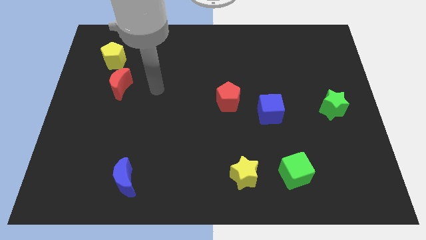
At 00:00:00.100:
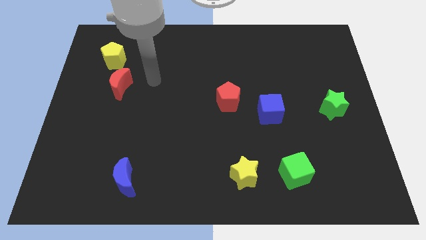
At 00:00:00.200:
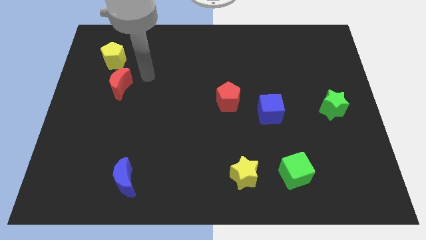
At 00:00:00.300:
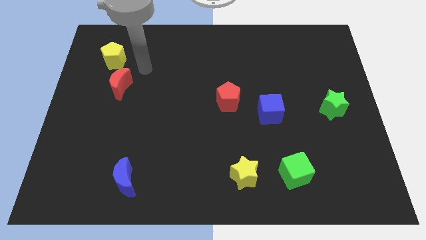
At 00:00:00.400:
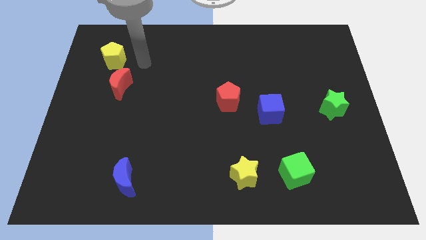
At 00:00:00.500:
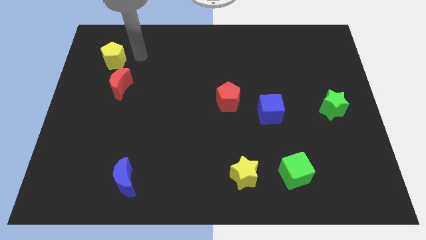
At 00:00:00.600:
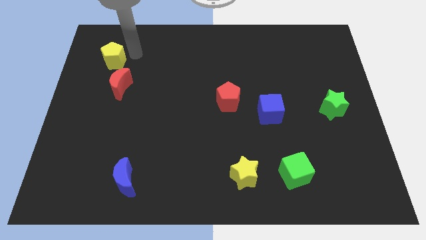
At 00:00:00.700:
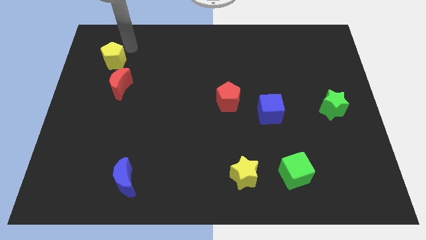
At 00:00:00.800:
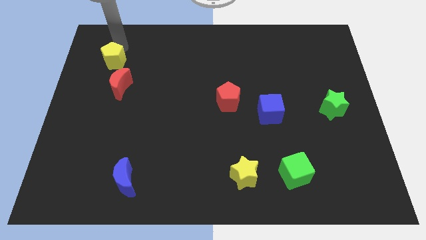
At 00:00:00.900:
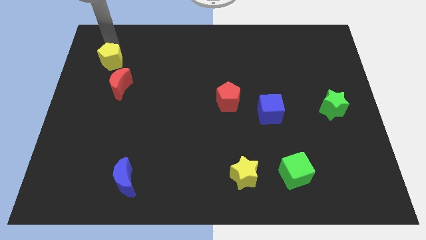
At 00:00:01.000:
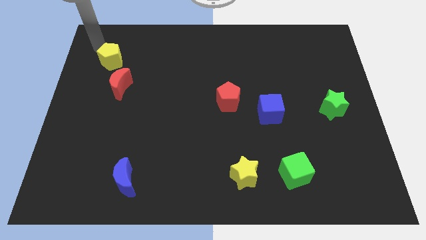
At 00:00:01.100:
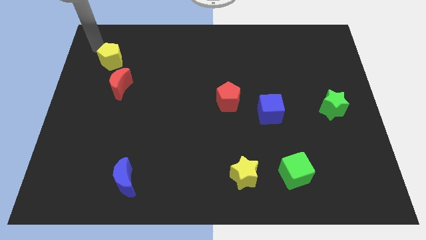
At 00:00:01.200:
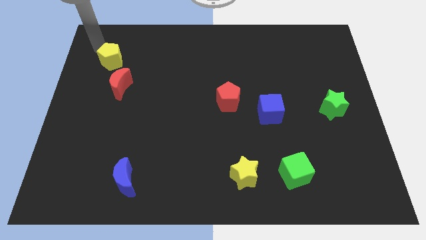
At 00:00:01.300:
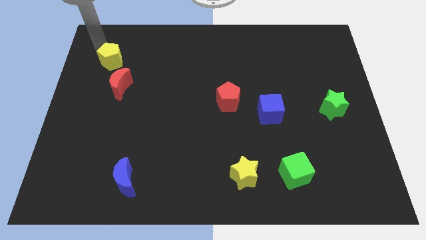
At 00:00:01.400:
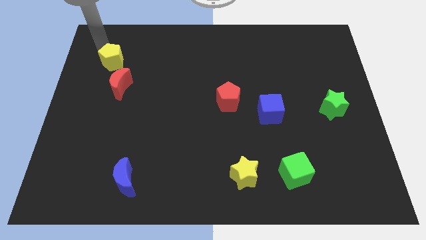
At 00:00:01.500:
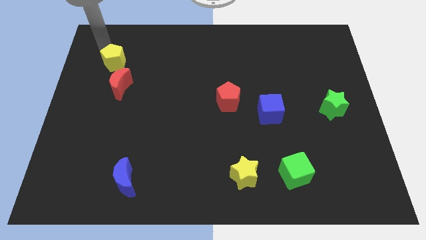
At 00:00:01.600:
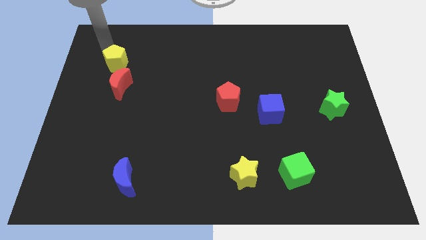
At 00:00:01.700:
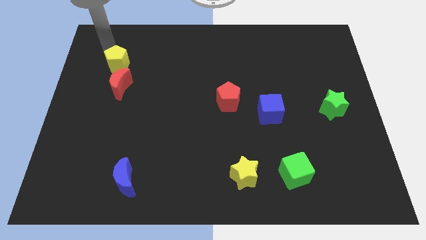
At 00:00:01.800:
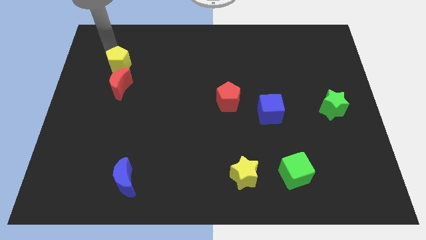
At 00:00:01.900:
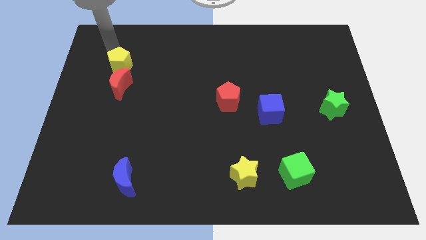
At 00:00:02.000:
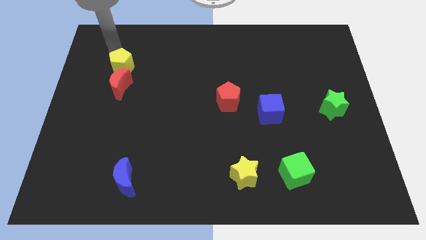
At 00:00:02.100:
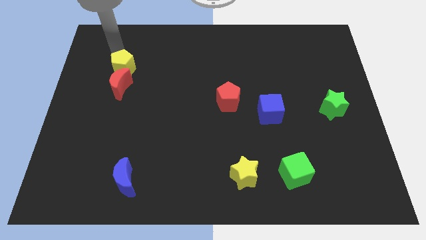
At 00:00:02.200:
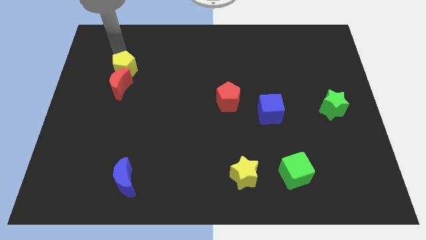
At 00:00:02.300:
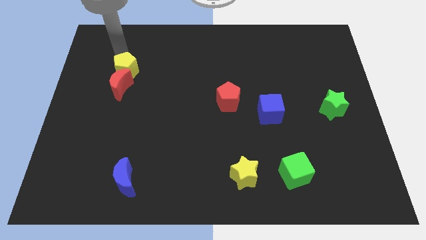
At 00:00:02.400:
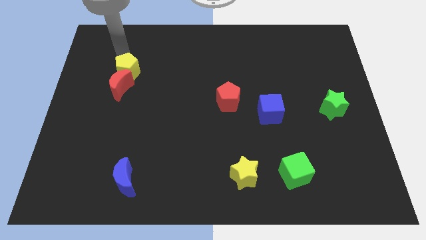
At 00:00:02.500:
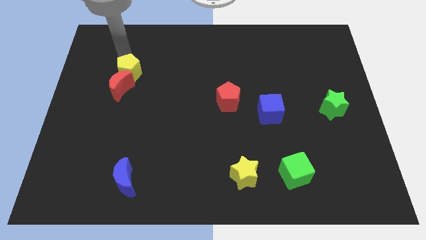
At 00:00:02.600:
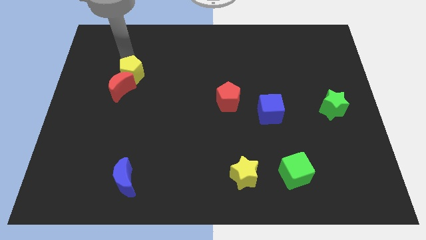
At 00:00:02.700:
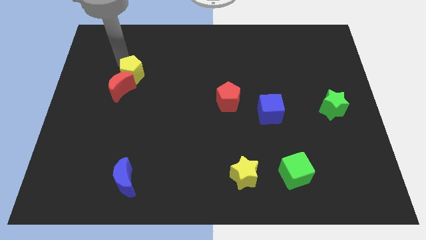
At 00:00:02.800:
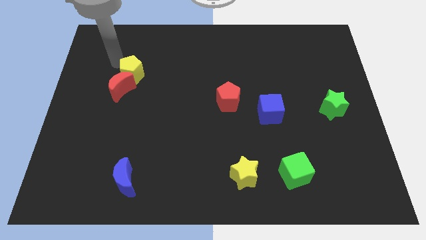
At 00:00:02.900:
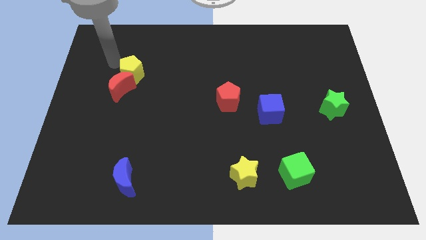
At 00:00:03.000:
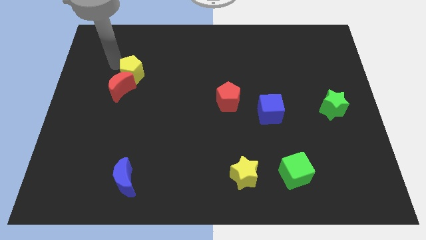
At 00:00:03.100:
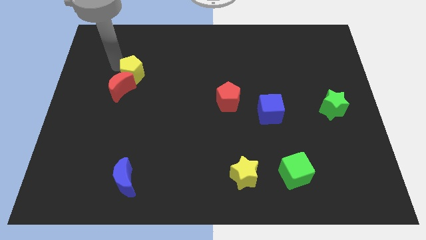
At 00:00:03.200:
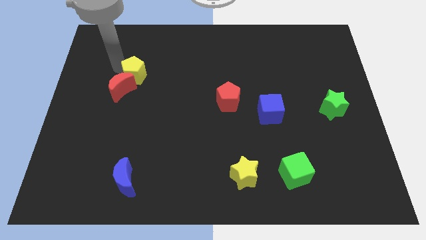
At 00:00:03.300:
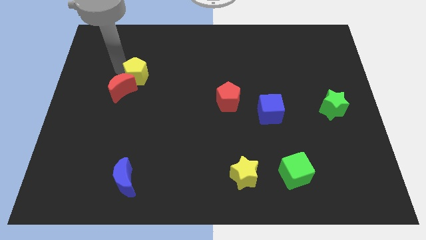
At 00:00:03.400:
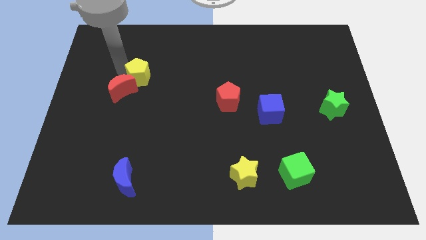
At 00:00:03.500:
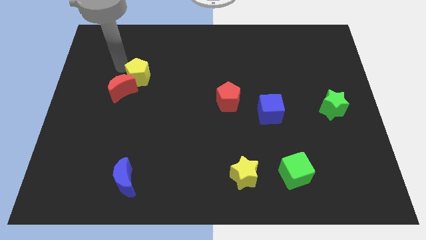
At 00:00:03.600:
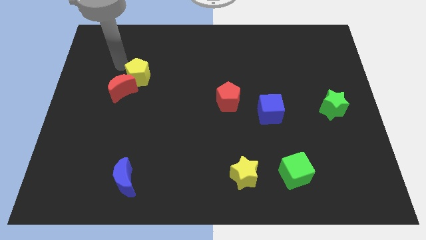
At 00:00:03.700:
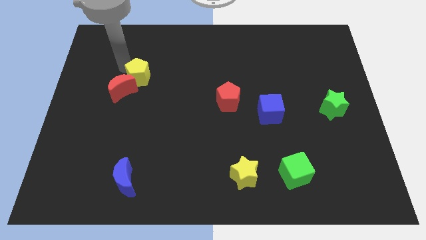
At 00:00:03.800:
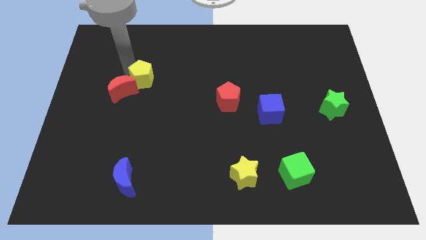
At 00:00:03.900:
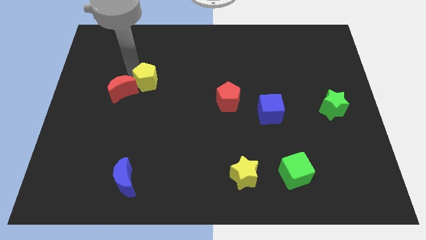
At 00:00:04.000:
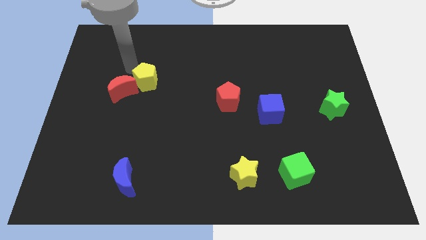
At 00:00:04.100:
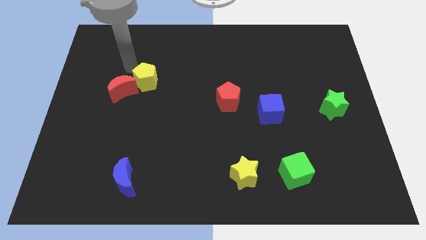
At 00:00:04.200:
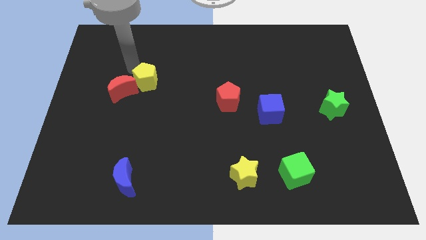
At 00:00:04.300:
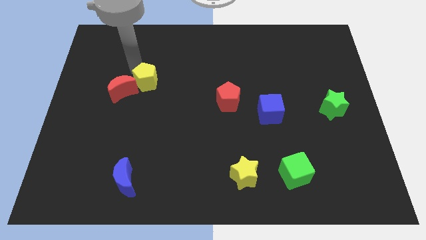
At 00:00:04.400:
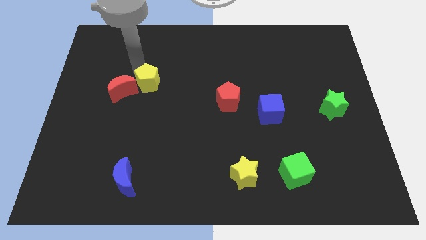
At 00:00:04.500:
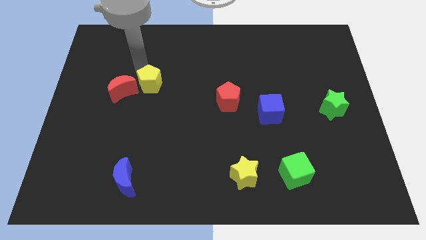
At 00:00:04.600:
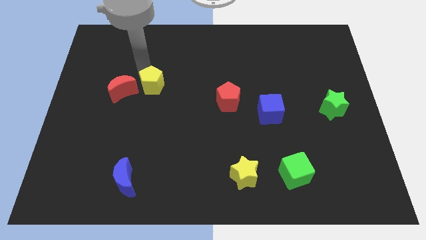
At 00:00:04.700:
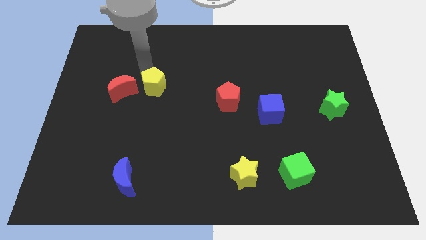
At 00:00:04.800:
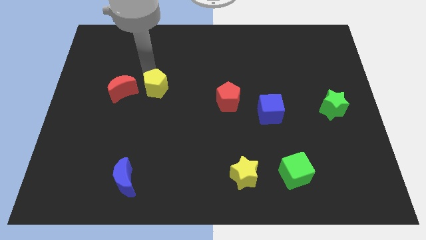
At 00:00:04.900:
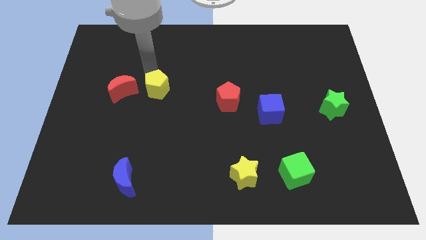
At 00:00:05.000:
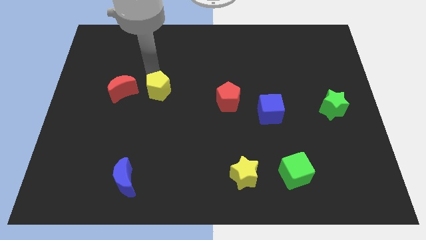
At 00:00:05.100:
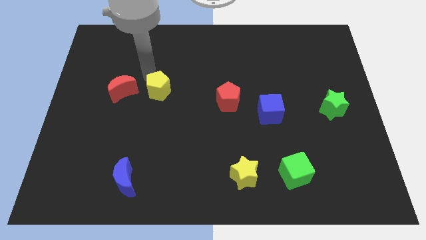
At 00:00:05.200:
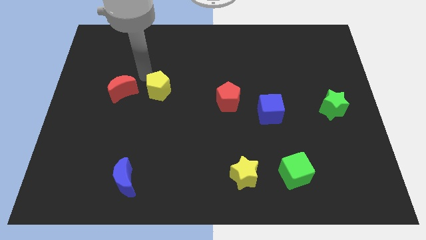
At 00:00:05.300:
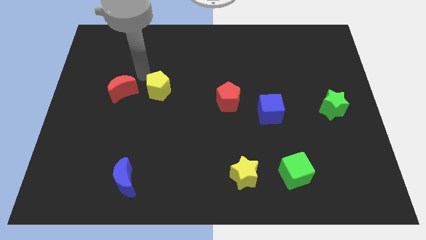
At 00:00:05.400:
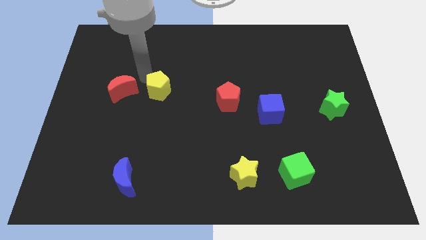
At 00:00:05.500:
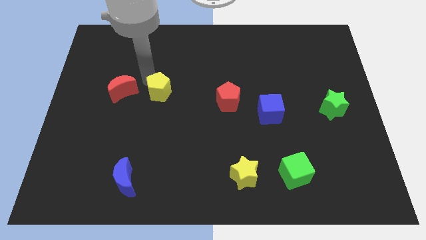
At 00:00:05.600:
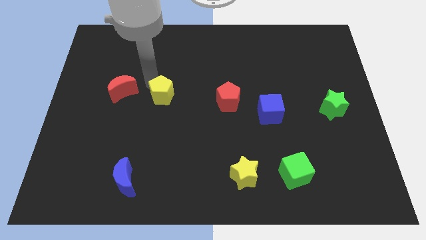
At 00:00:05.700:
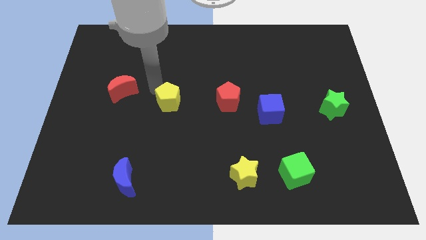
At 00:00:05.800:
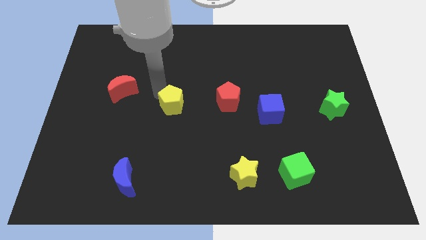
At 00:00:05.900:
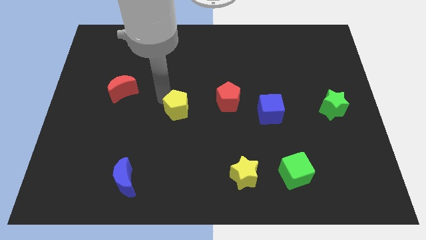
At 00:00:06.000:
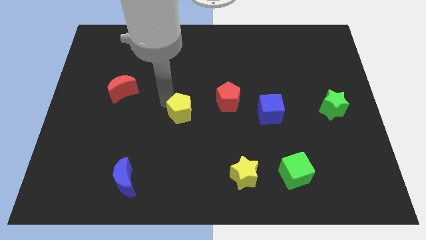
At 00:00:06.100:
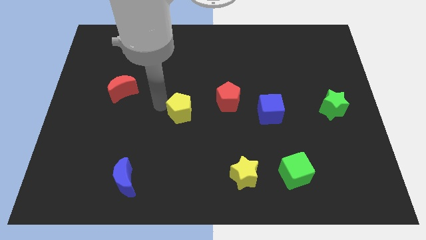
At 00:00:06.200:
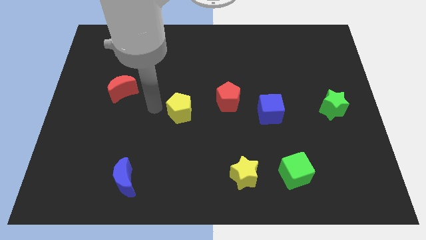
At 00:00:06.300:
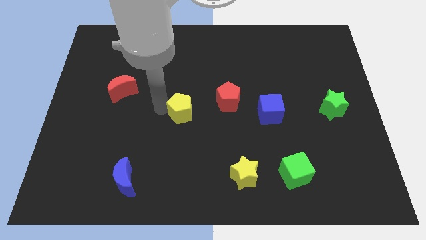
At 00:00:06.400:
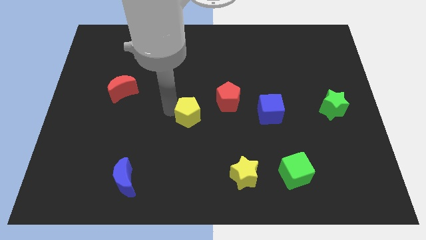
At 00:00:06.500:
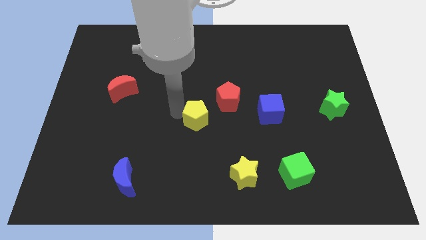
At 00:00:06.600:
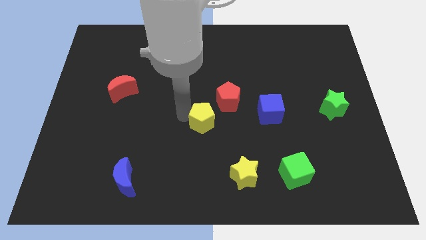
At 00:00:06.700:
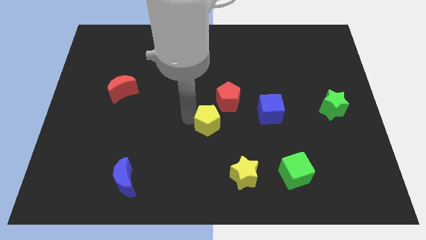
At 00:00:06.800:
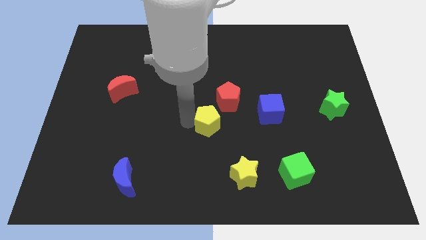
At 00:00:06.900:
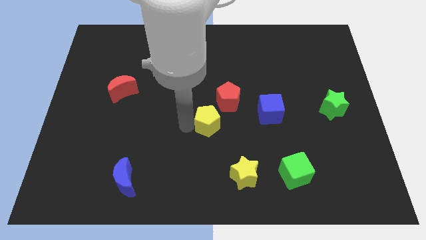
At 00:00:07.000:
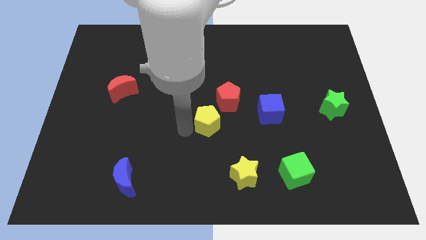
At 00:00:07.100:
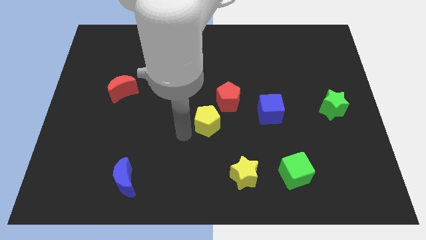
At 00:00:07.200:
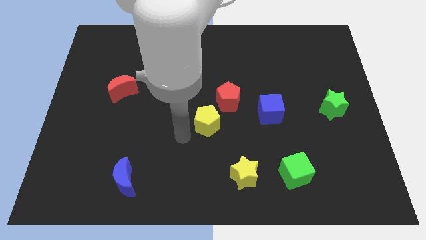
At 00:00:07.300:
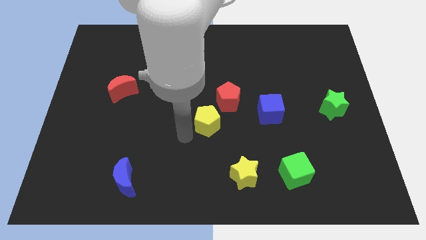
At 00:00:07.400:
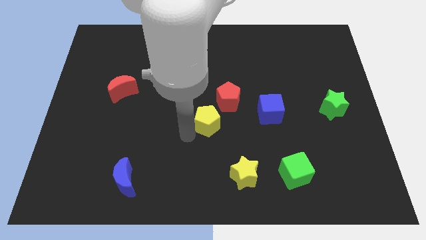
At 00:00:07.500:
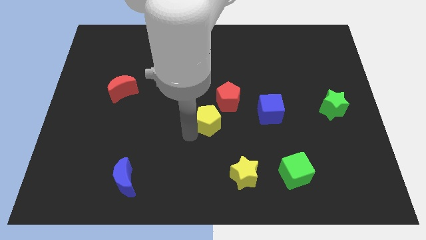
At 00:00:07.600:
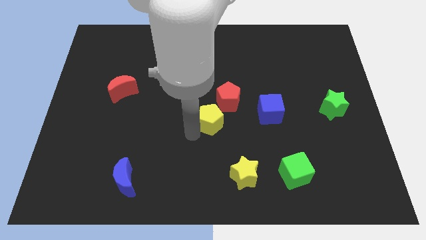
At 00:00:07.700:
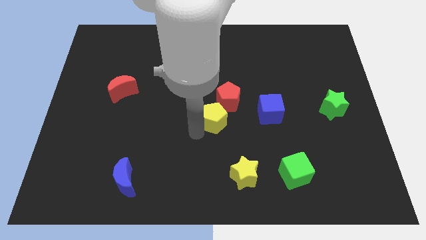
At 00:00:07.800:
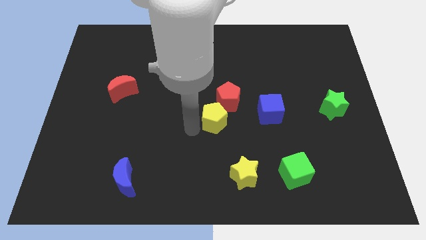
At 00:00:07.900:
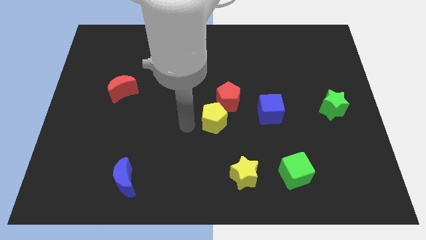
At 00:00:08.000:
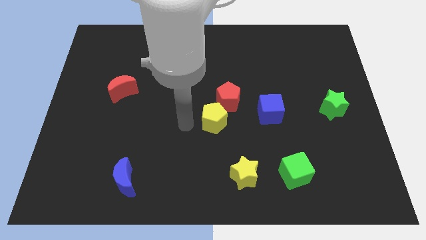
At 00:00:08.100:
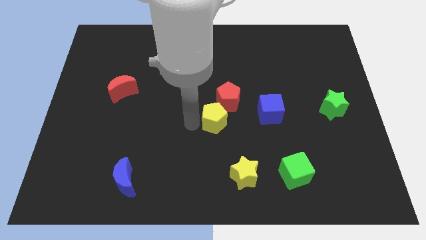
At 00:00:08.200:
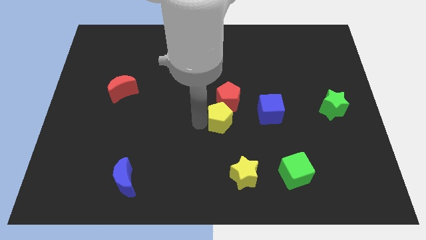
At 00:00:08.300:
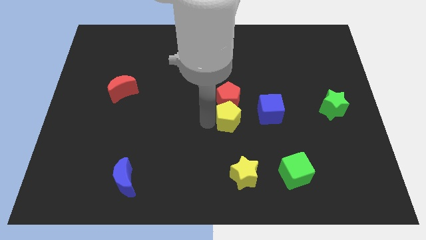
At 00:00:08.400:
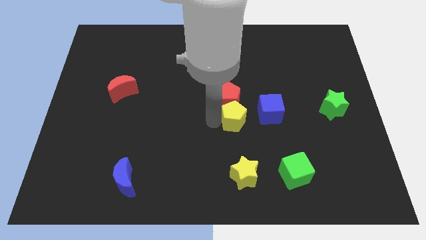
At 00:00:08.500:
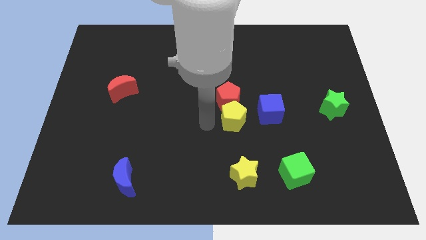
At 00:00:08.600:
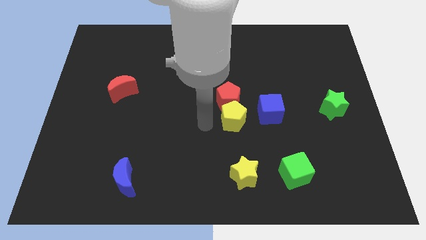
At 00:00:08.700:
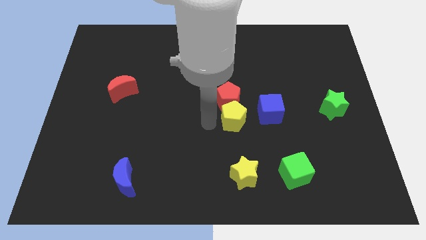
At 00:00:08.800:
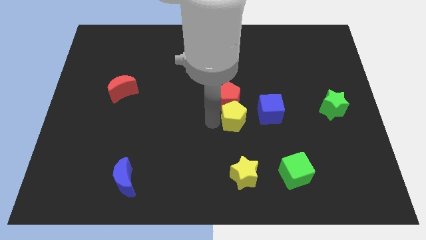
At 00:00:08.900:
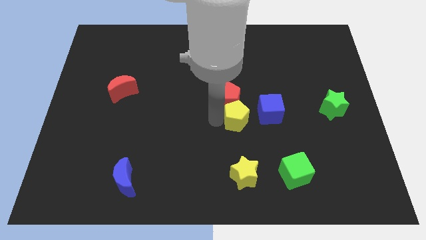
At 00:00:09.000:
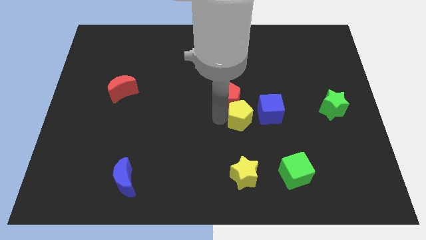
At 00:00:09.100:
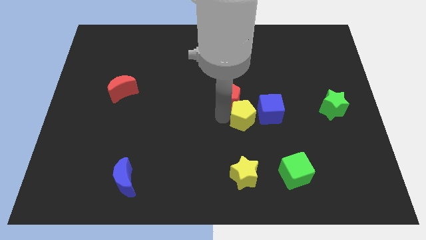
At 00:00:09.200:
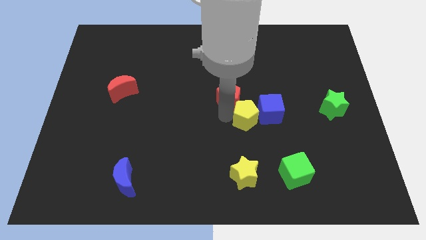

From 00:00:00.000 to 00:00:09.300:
put the yellow pentagon to the blue cube
